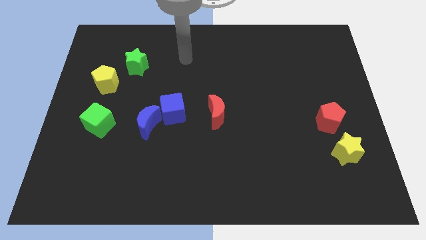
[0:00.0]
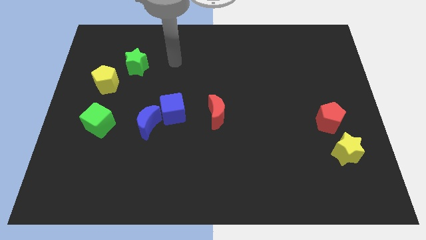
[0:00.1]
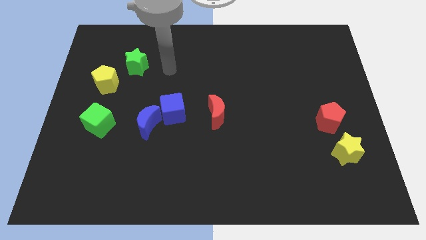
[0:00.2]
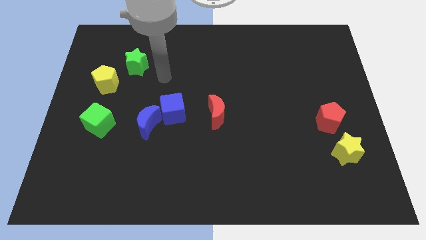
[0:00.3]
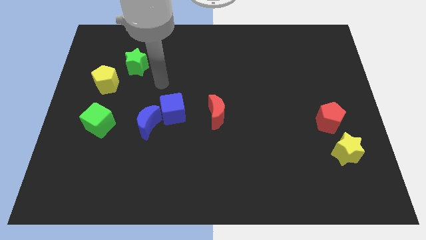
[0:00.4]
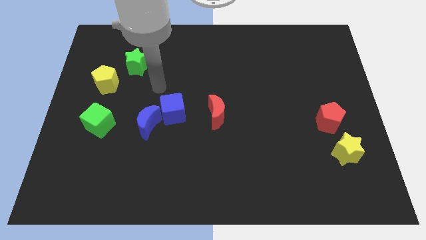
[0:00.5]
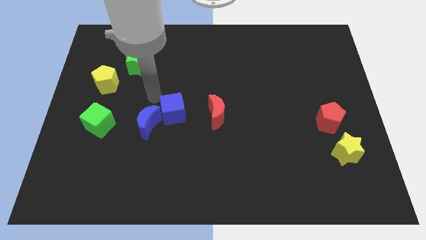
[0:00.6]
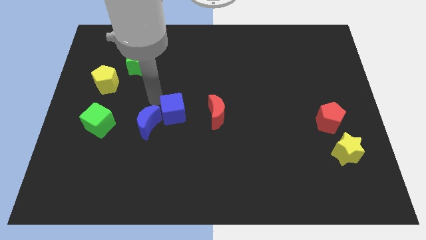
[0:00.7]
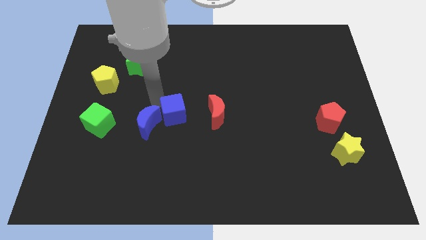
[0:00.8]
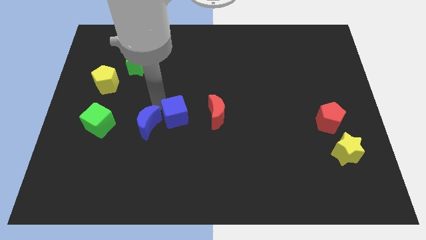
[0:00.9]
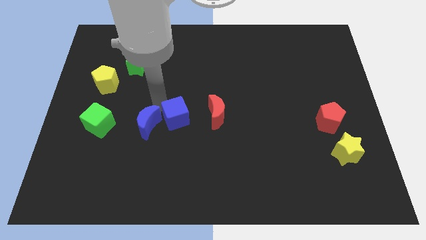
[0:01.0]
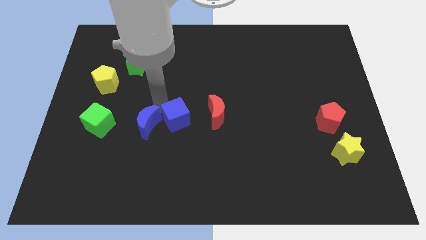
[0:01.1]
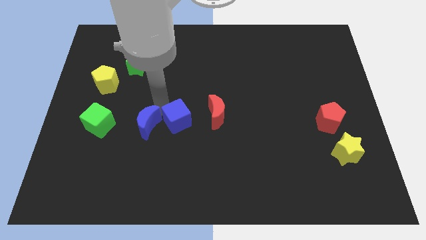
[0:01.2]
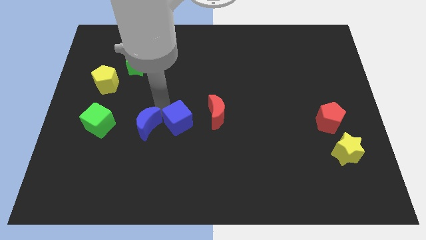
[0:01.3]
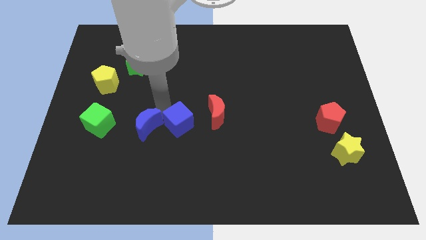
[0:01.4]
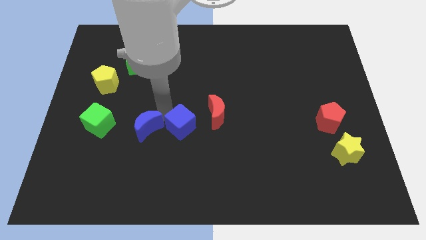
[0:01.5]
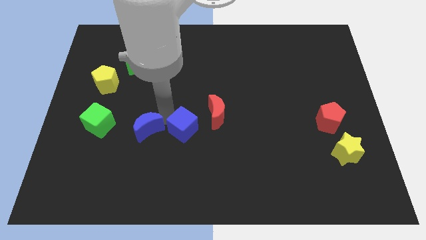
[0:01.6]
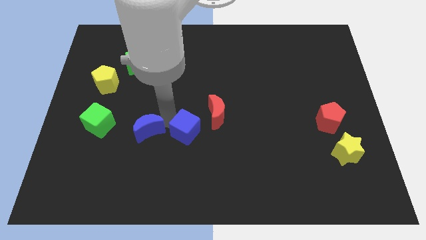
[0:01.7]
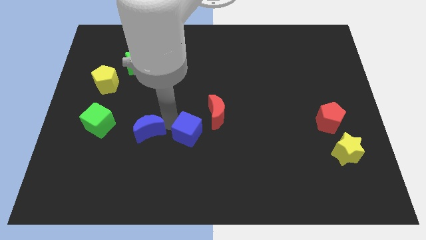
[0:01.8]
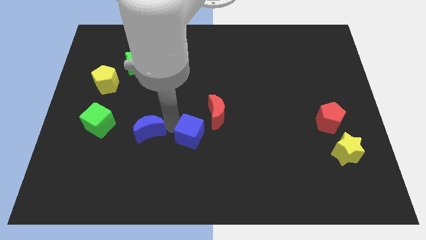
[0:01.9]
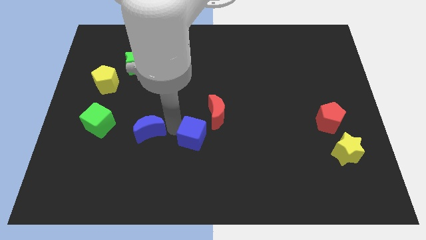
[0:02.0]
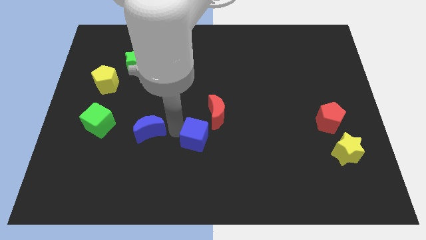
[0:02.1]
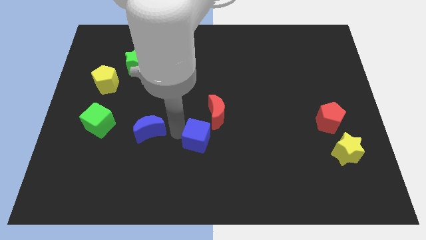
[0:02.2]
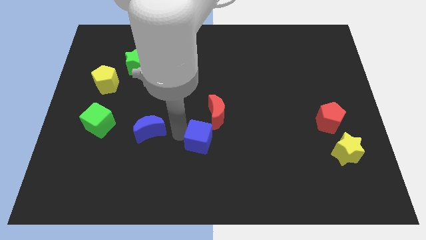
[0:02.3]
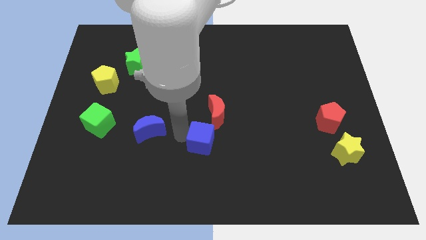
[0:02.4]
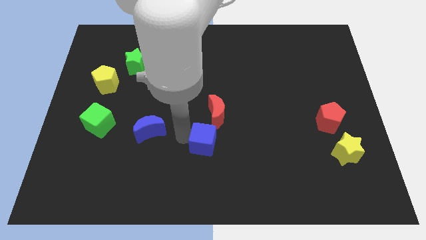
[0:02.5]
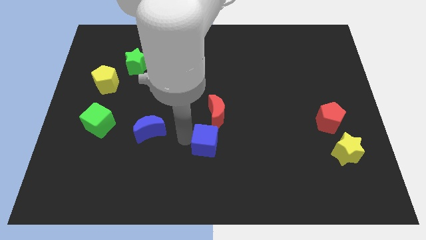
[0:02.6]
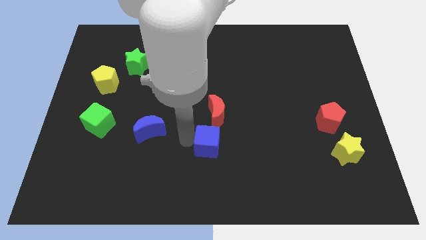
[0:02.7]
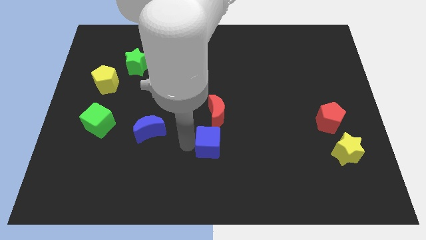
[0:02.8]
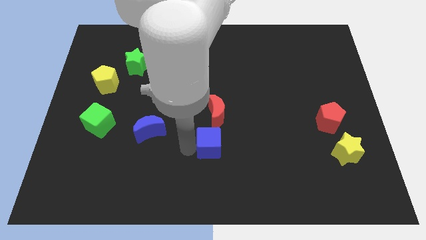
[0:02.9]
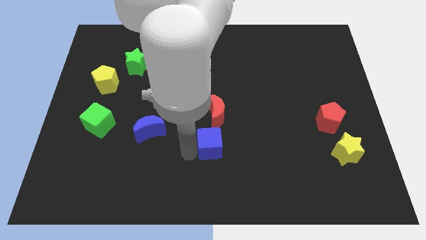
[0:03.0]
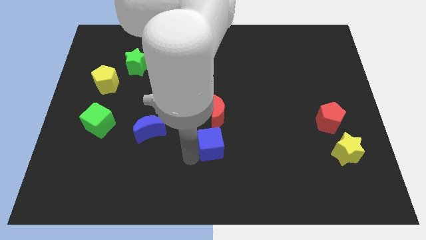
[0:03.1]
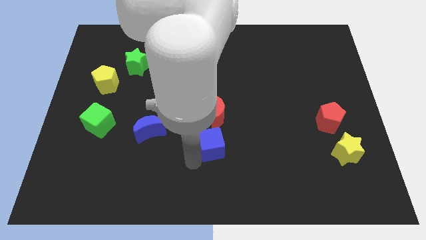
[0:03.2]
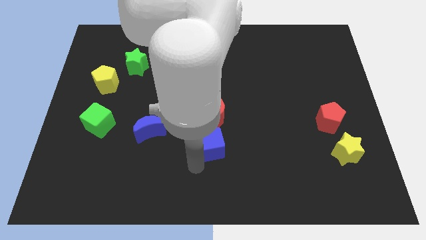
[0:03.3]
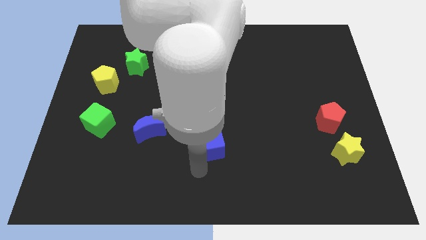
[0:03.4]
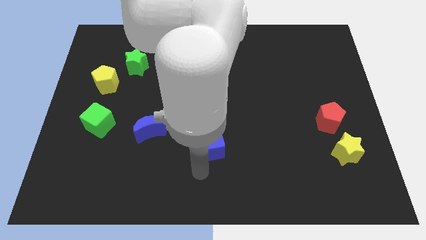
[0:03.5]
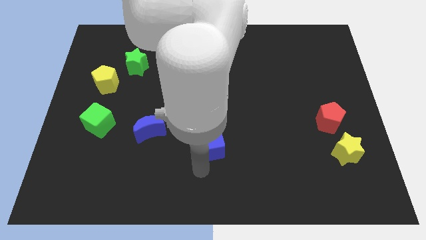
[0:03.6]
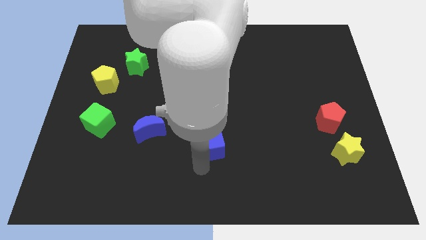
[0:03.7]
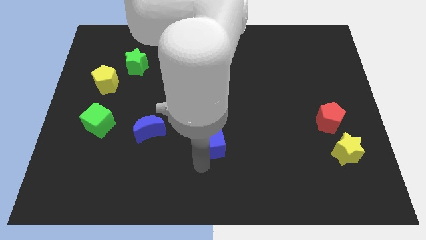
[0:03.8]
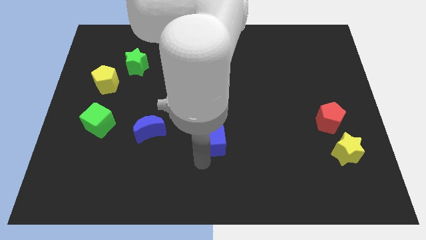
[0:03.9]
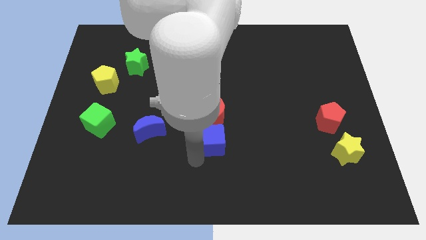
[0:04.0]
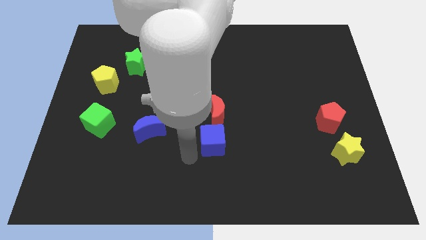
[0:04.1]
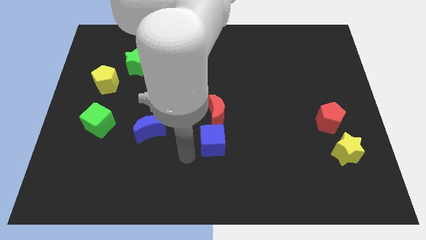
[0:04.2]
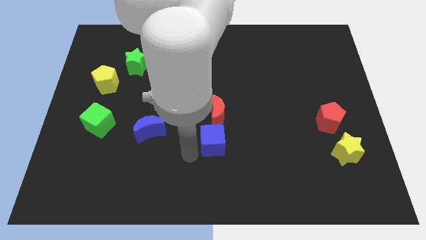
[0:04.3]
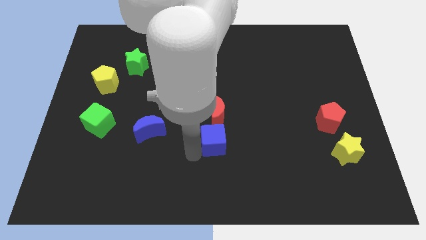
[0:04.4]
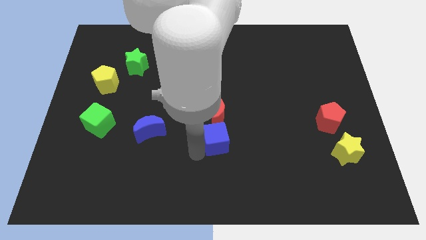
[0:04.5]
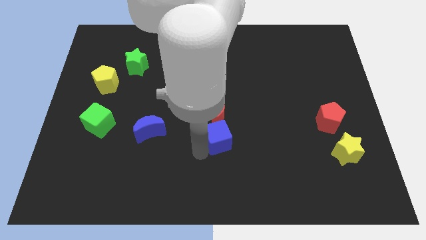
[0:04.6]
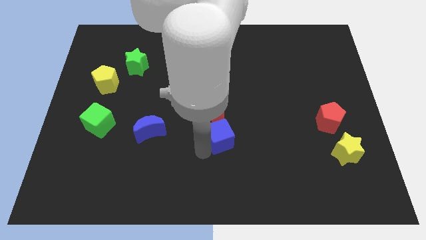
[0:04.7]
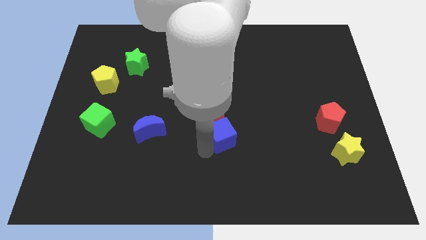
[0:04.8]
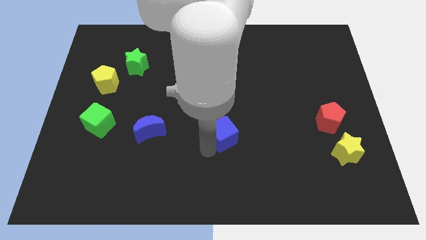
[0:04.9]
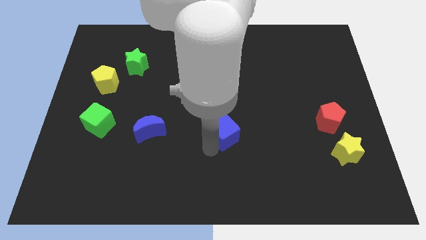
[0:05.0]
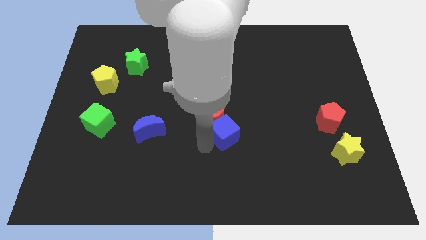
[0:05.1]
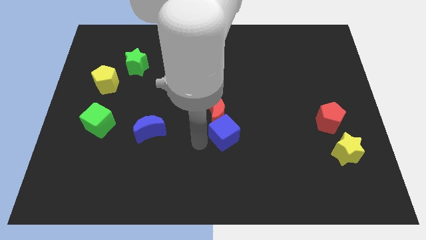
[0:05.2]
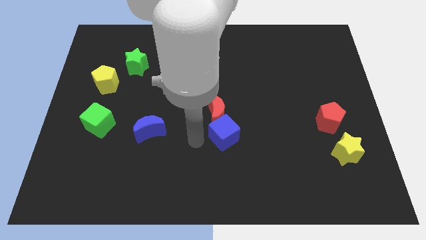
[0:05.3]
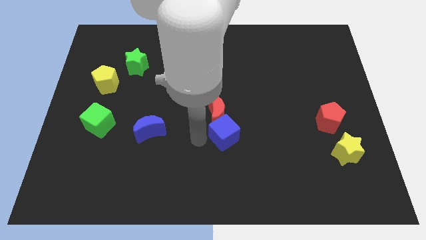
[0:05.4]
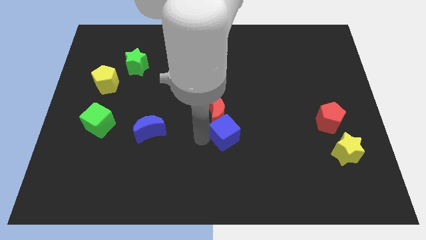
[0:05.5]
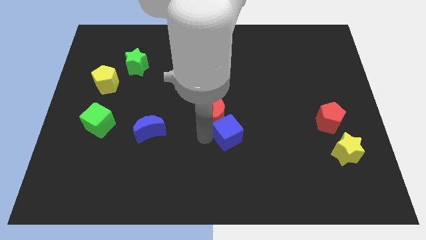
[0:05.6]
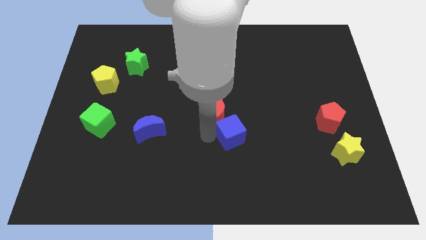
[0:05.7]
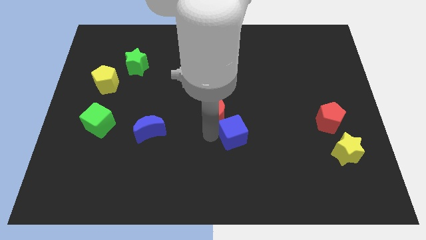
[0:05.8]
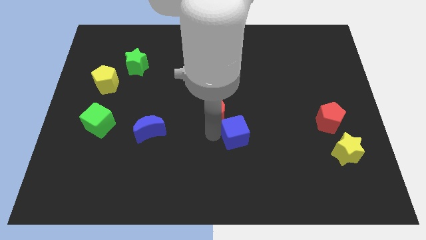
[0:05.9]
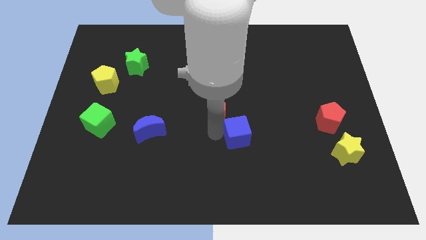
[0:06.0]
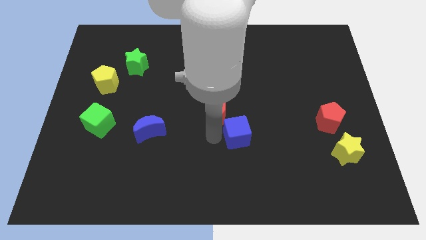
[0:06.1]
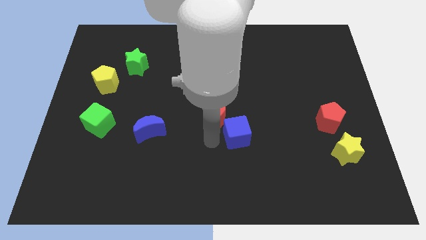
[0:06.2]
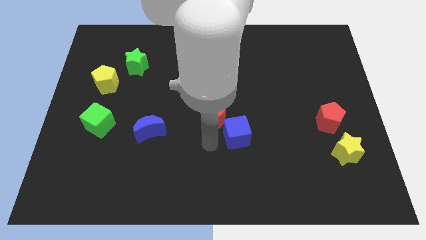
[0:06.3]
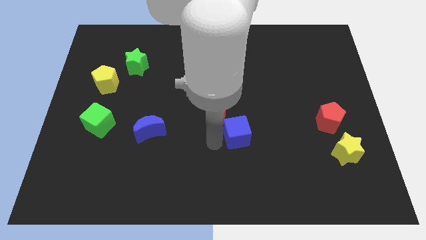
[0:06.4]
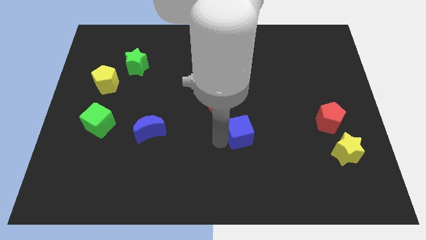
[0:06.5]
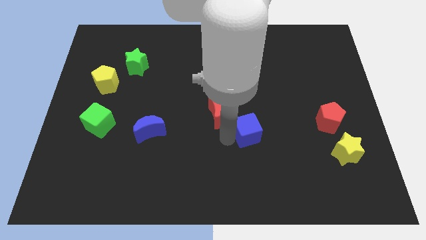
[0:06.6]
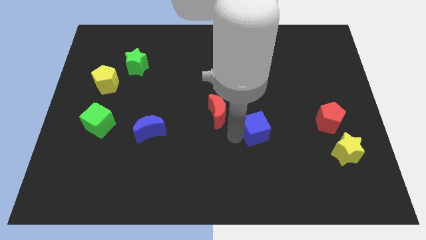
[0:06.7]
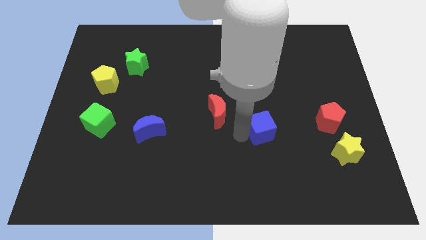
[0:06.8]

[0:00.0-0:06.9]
slide the blue cube to the left of the red pentagon
